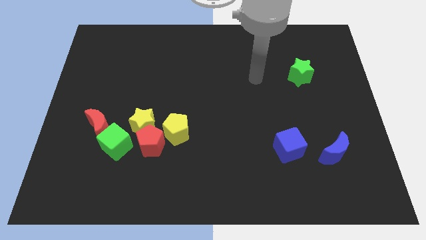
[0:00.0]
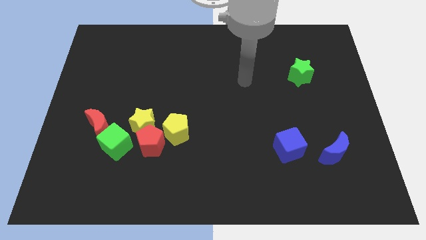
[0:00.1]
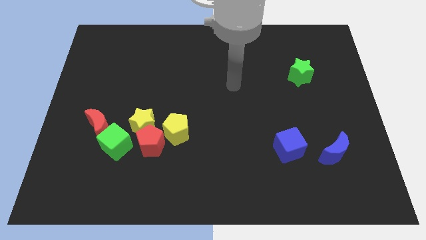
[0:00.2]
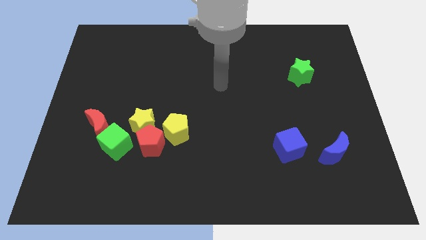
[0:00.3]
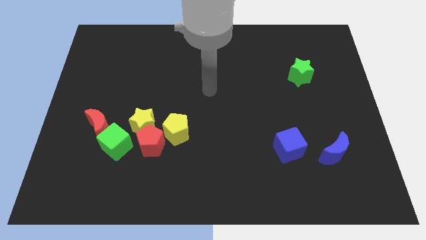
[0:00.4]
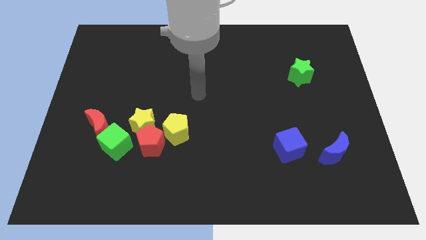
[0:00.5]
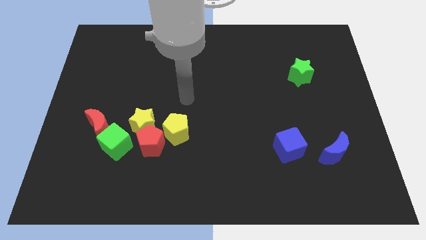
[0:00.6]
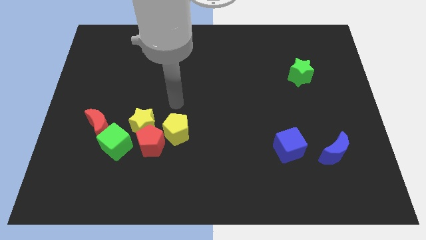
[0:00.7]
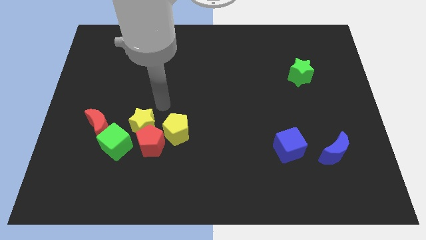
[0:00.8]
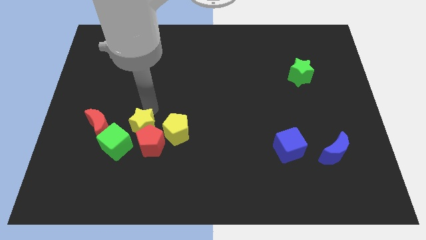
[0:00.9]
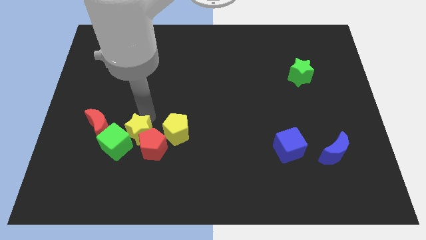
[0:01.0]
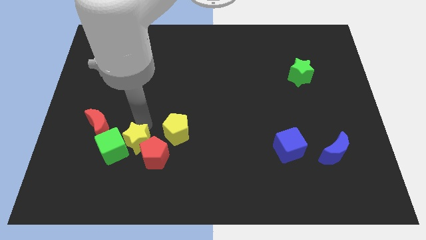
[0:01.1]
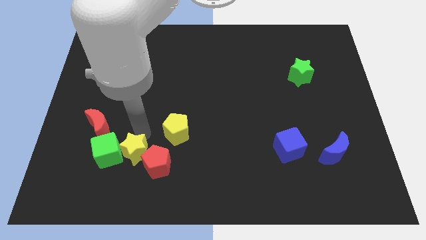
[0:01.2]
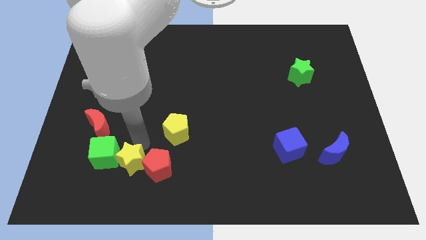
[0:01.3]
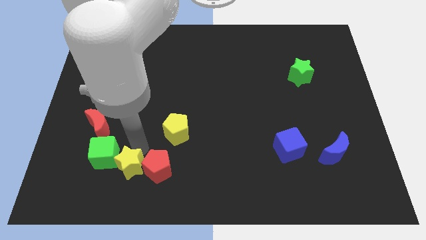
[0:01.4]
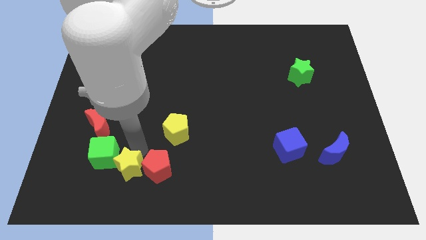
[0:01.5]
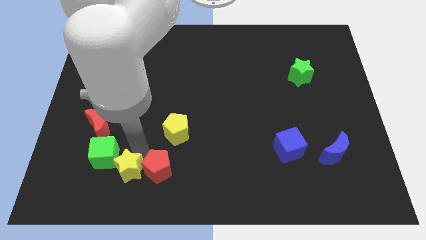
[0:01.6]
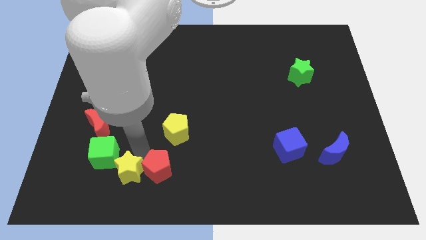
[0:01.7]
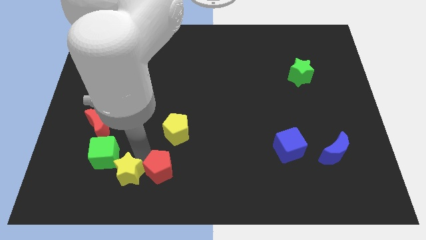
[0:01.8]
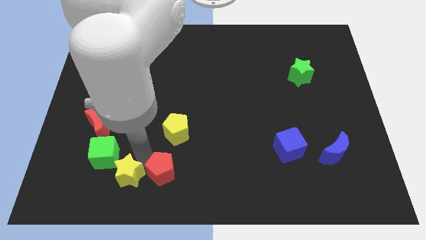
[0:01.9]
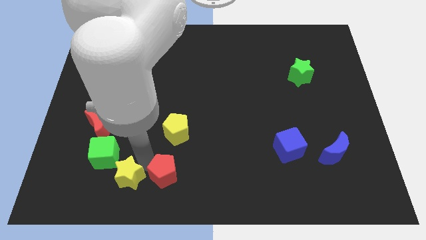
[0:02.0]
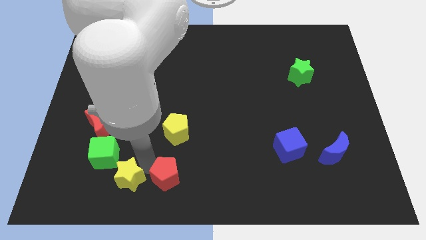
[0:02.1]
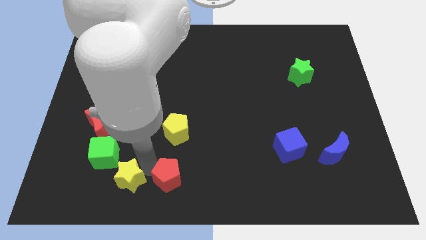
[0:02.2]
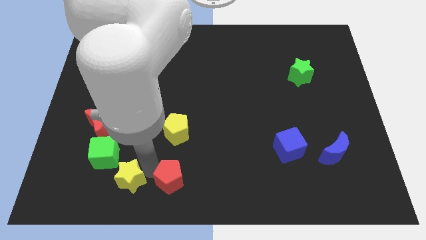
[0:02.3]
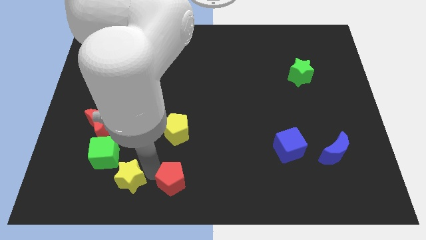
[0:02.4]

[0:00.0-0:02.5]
pull the red pentagon apart from the yellow star, yellow pentagon, and green cube

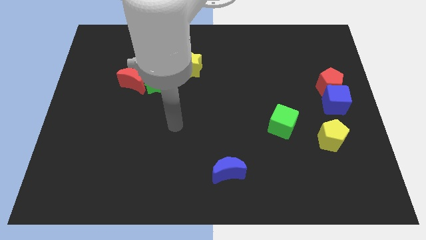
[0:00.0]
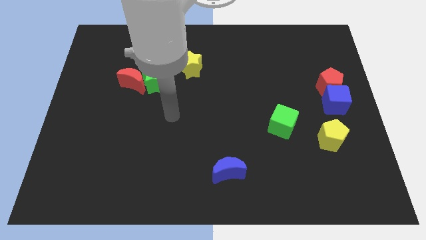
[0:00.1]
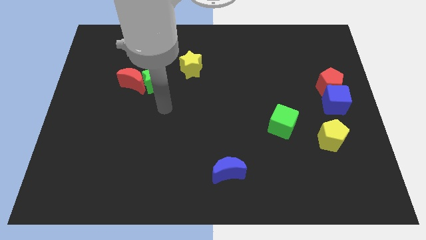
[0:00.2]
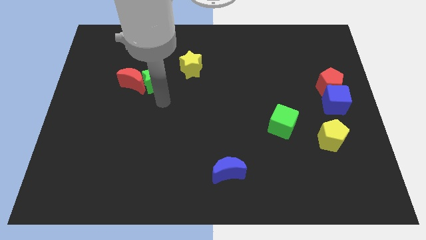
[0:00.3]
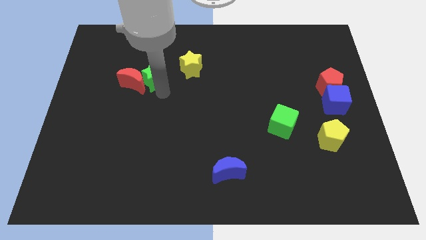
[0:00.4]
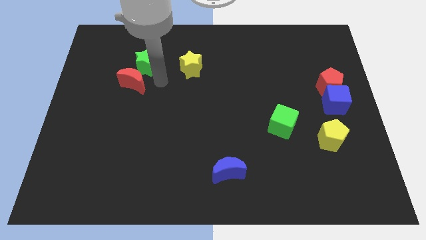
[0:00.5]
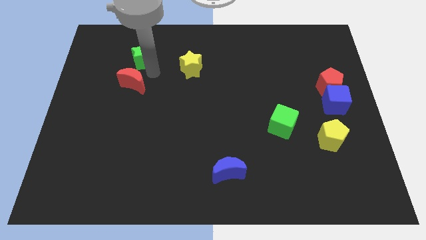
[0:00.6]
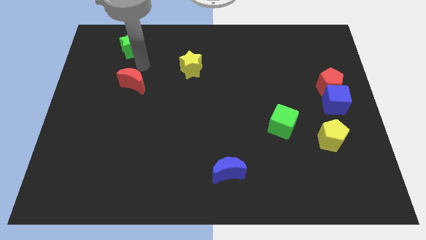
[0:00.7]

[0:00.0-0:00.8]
separate the red moon from the green star

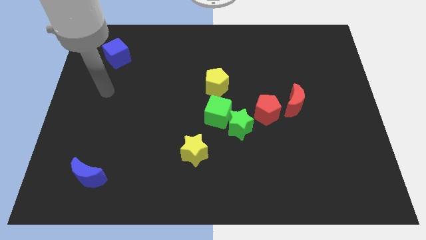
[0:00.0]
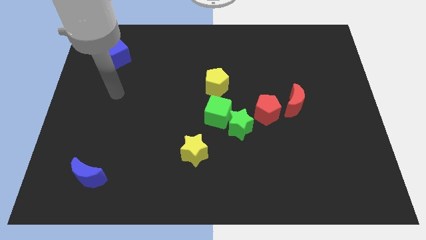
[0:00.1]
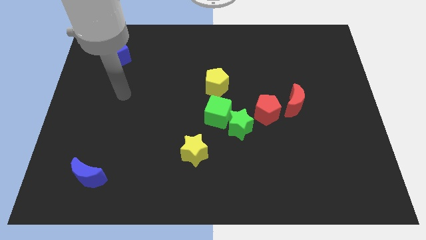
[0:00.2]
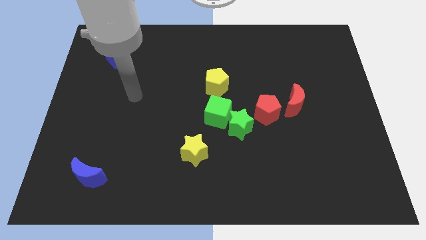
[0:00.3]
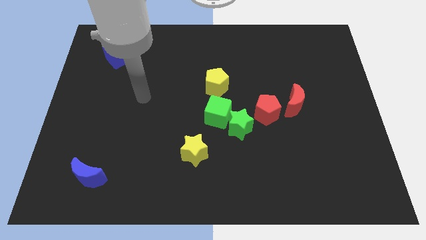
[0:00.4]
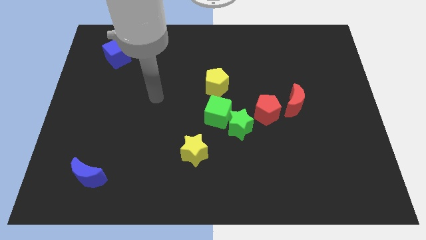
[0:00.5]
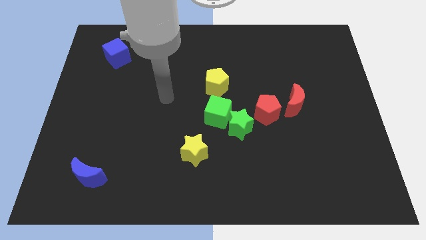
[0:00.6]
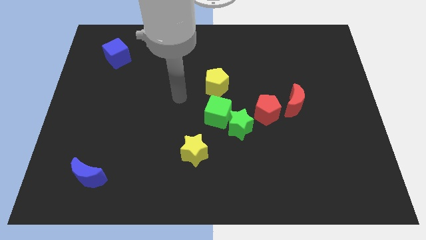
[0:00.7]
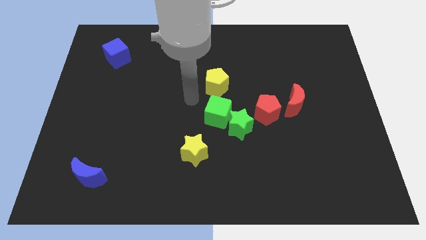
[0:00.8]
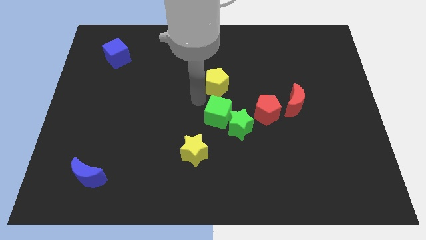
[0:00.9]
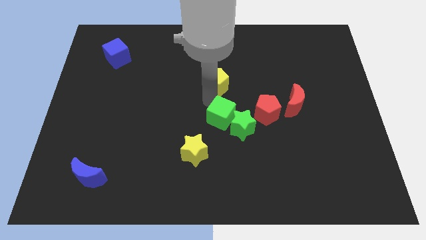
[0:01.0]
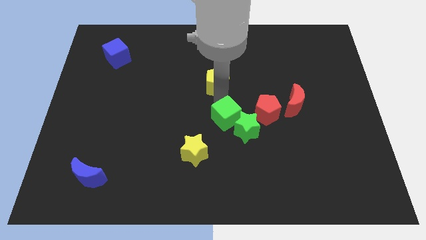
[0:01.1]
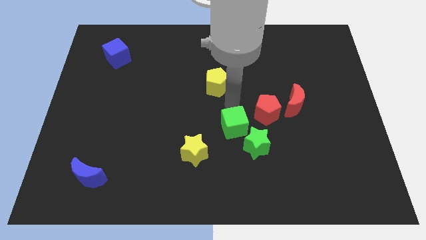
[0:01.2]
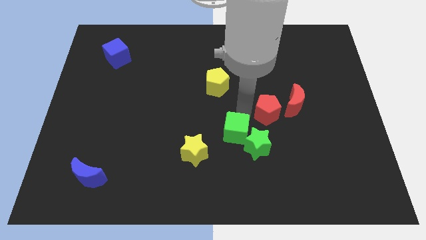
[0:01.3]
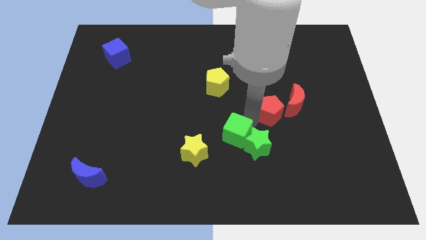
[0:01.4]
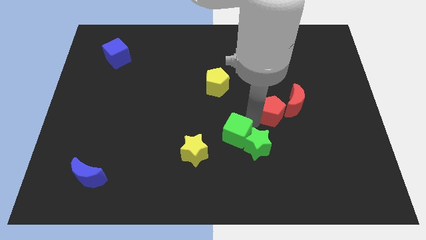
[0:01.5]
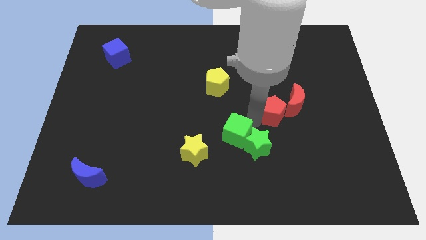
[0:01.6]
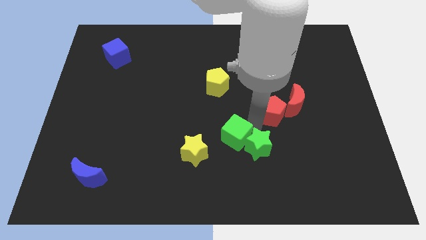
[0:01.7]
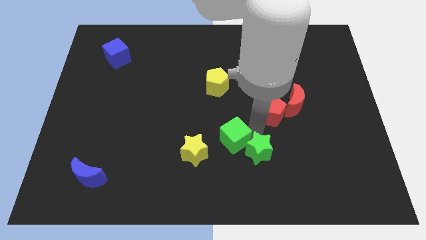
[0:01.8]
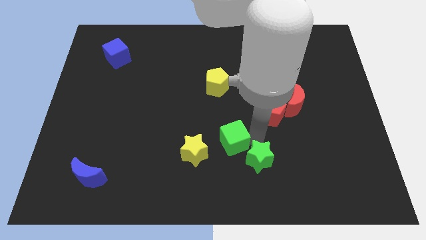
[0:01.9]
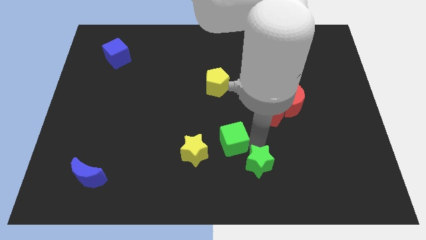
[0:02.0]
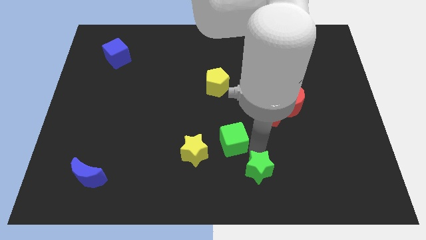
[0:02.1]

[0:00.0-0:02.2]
move the green star away from the green cube and red pentagon

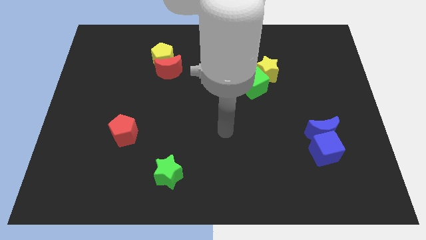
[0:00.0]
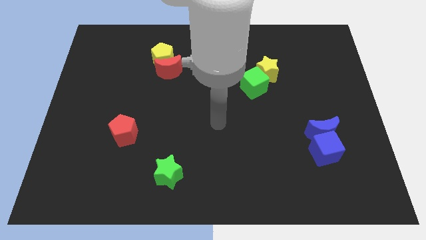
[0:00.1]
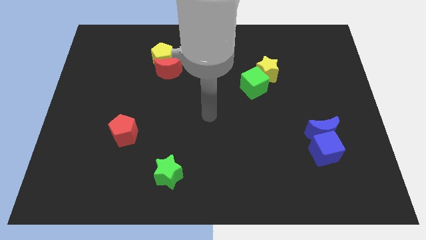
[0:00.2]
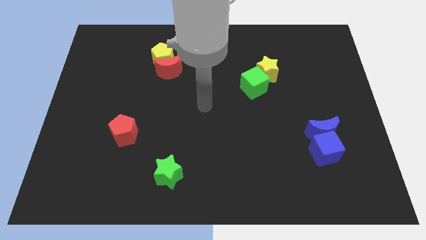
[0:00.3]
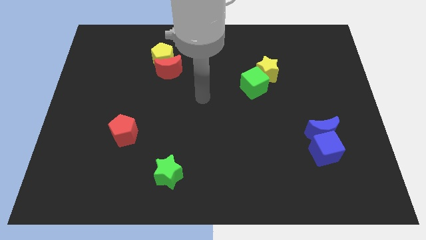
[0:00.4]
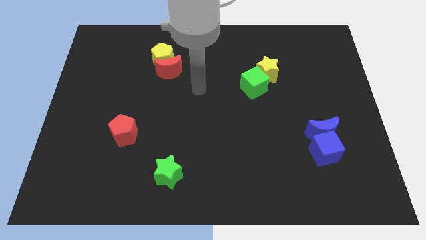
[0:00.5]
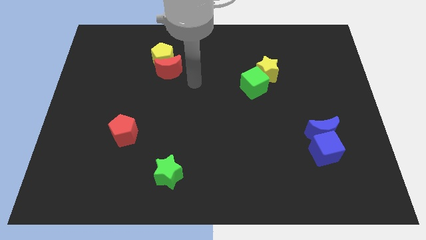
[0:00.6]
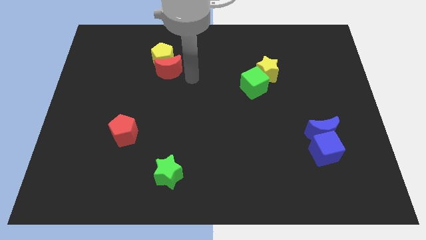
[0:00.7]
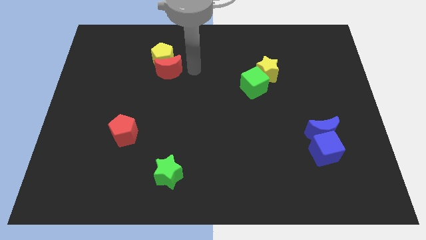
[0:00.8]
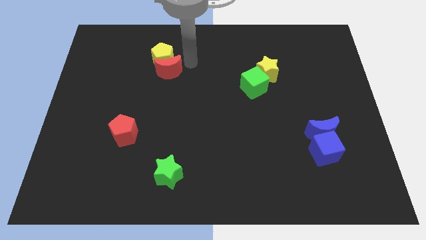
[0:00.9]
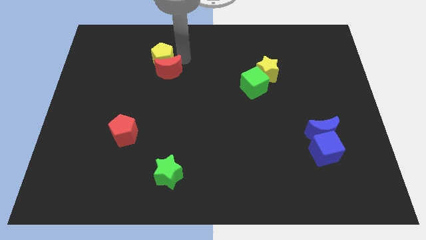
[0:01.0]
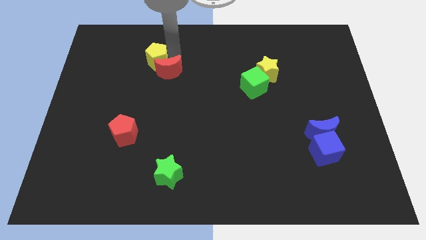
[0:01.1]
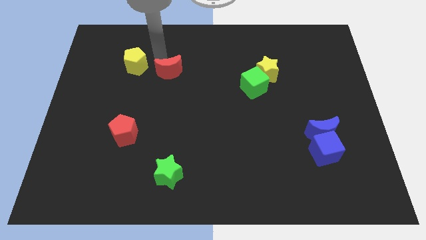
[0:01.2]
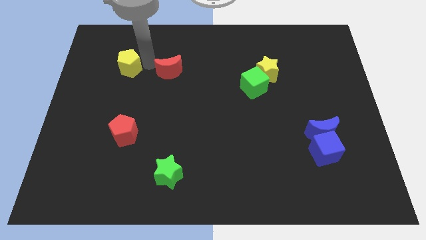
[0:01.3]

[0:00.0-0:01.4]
pull the red moon apart from the yellow pentagon

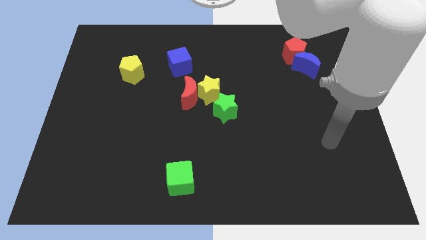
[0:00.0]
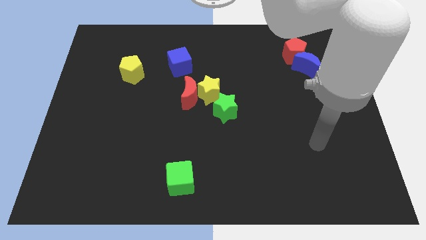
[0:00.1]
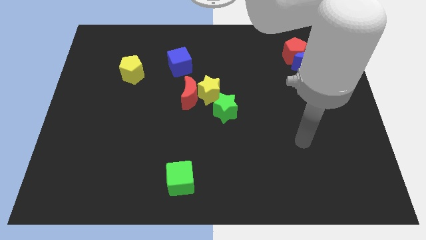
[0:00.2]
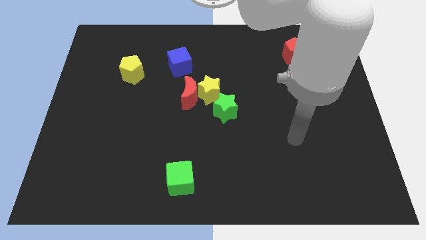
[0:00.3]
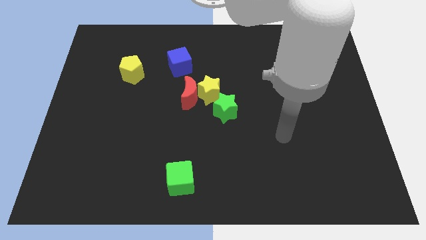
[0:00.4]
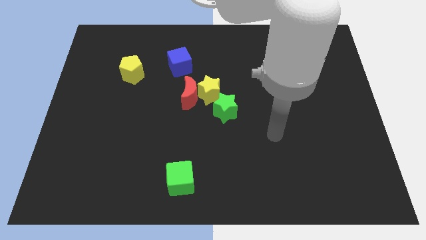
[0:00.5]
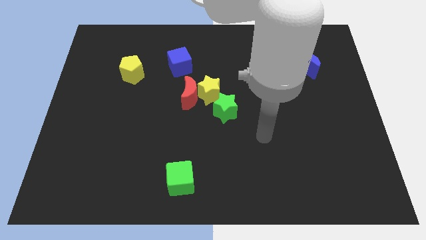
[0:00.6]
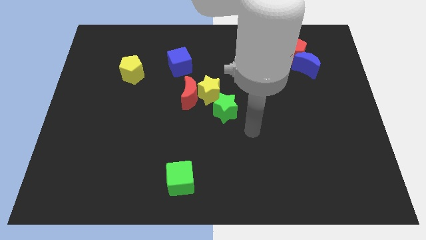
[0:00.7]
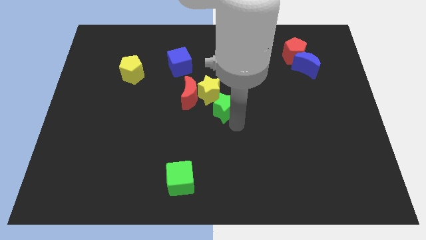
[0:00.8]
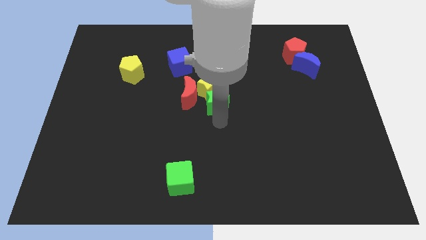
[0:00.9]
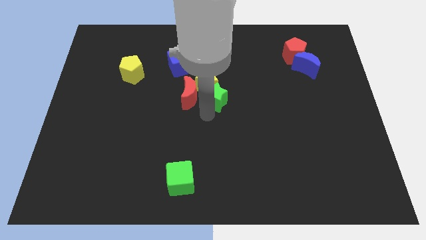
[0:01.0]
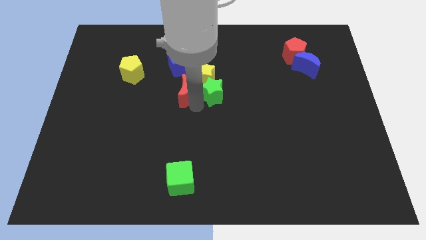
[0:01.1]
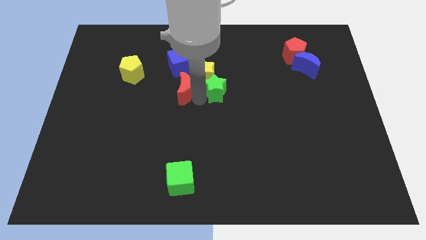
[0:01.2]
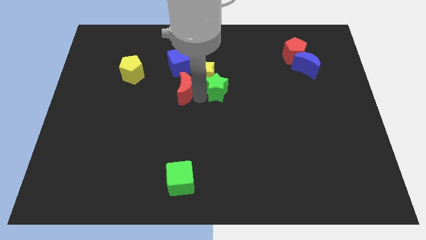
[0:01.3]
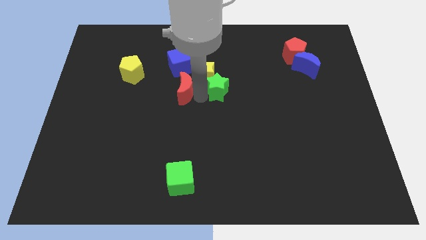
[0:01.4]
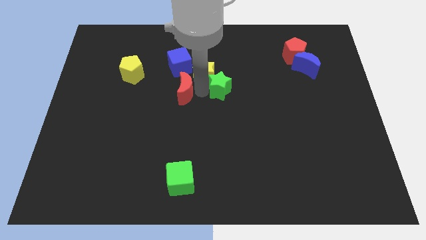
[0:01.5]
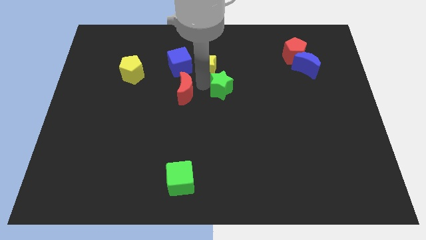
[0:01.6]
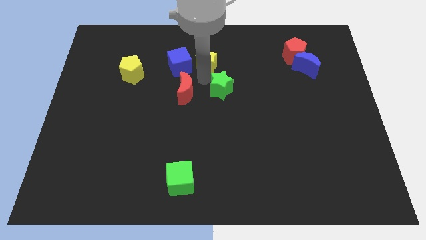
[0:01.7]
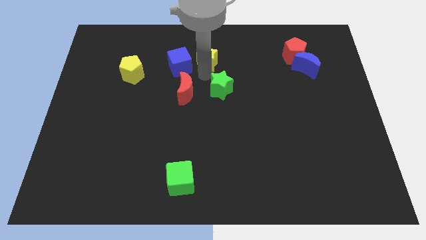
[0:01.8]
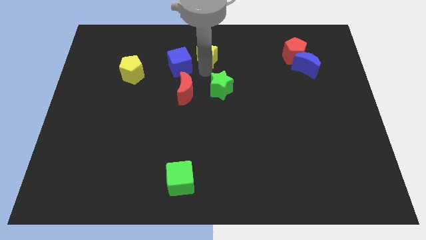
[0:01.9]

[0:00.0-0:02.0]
pull the yellow star apart from the red moon and green star

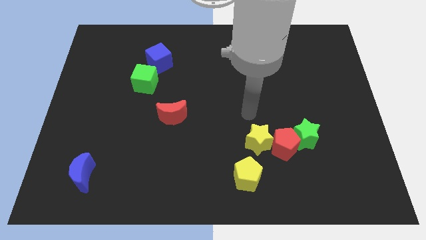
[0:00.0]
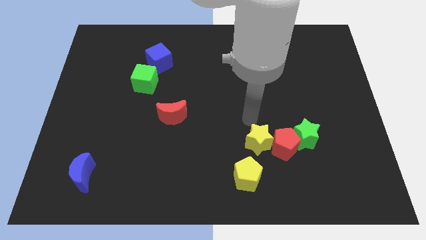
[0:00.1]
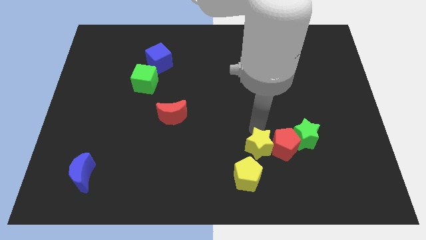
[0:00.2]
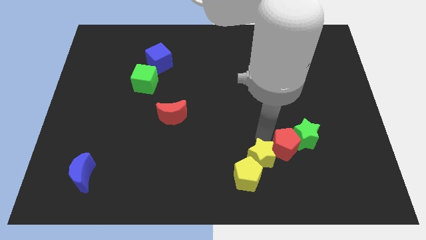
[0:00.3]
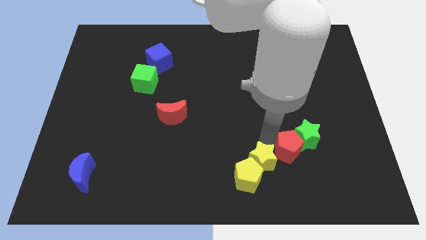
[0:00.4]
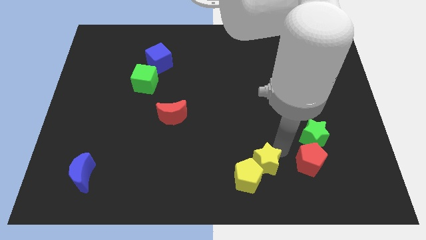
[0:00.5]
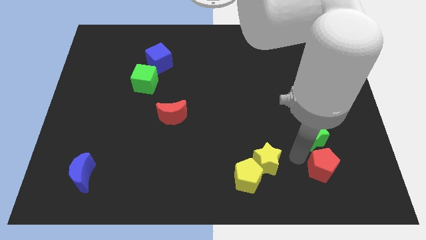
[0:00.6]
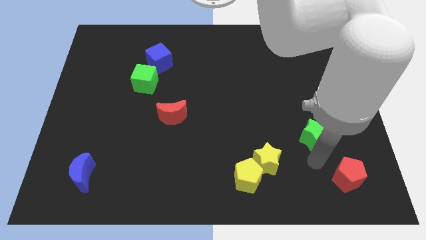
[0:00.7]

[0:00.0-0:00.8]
pull the green star apart from the red pentagon
